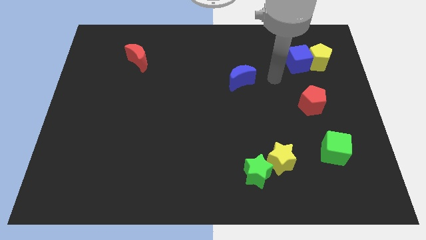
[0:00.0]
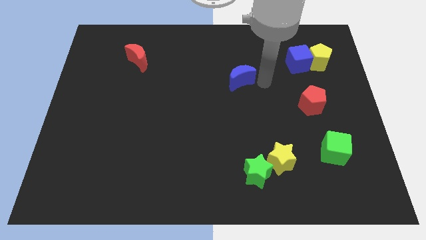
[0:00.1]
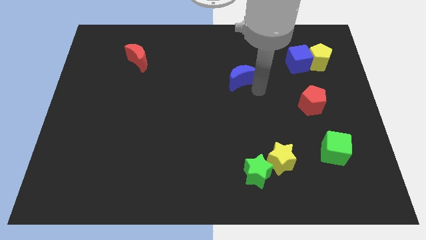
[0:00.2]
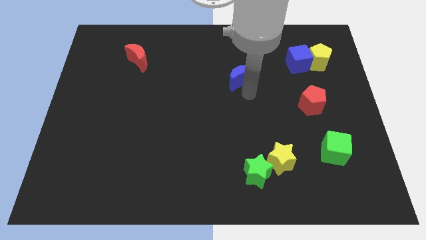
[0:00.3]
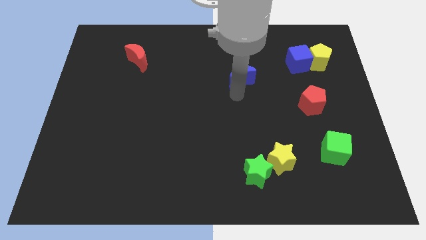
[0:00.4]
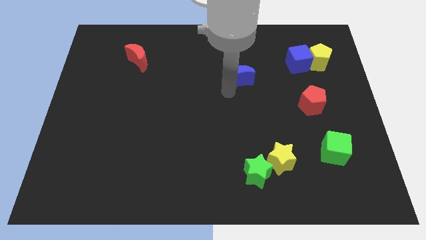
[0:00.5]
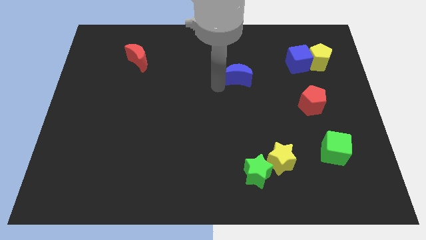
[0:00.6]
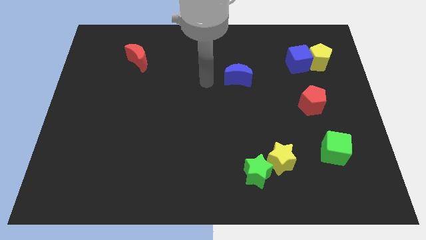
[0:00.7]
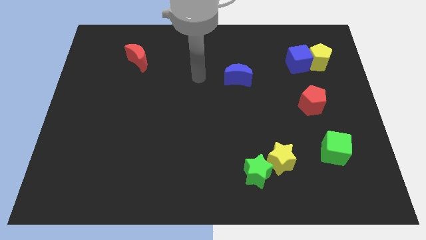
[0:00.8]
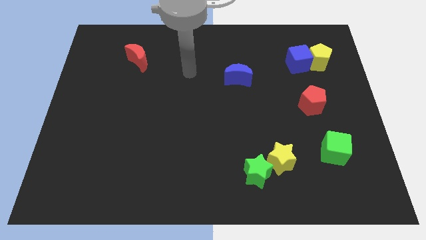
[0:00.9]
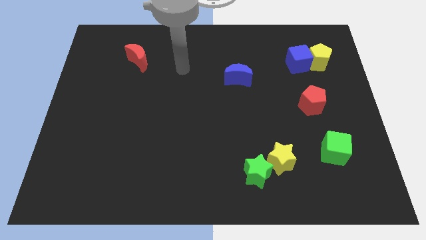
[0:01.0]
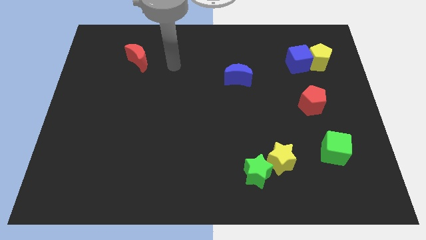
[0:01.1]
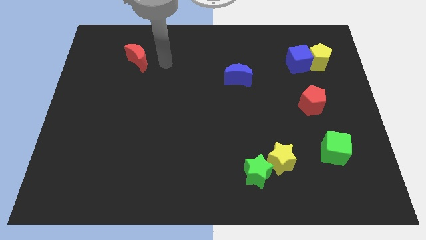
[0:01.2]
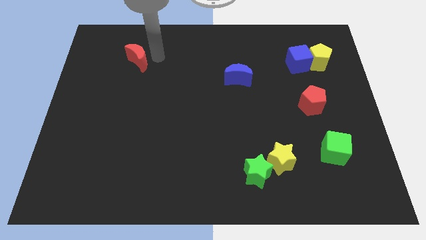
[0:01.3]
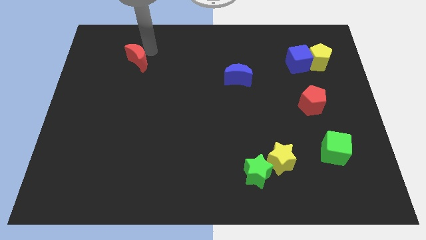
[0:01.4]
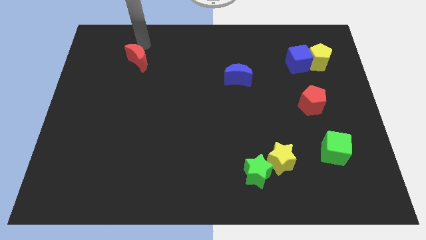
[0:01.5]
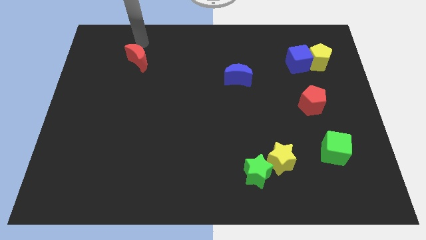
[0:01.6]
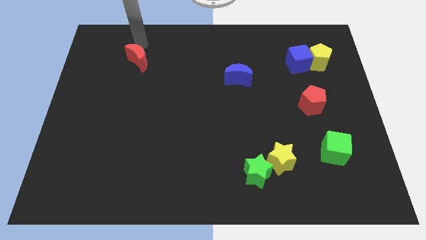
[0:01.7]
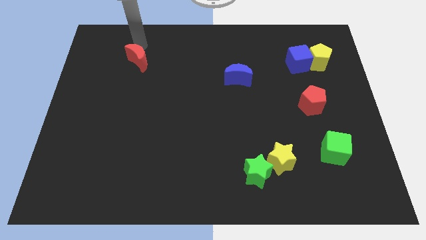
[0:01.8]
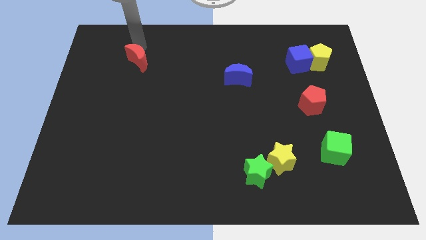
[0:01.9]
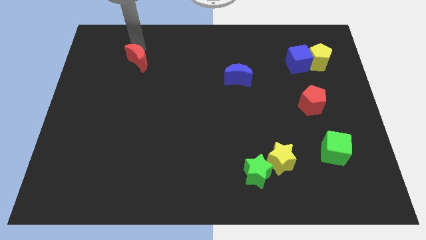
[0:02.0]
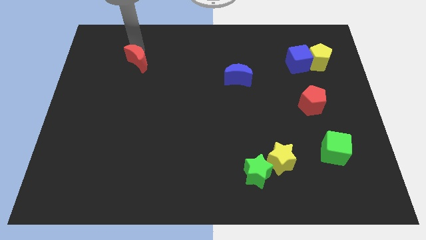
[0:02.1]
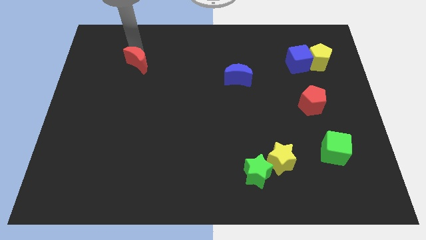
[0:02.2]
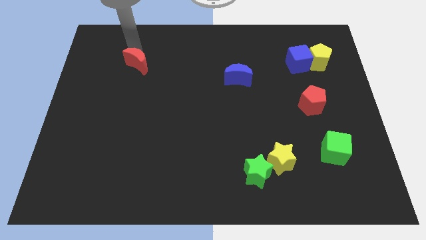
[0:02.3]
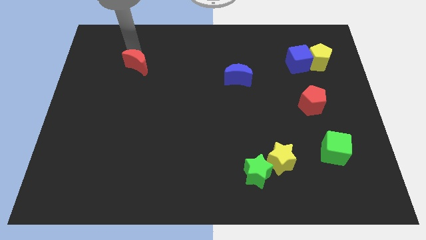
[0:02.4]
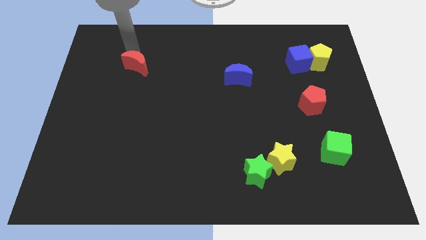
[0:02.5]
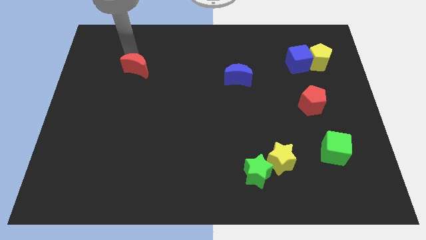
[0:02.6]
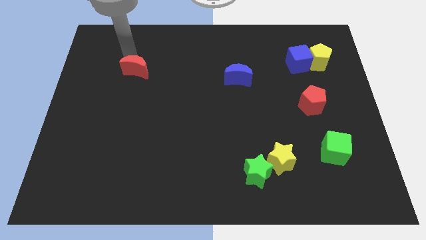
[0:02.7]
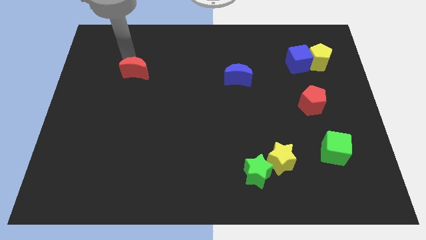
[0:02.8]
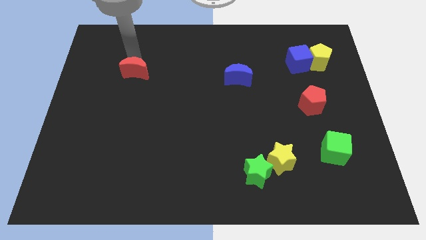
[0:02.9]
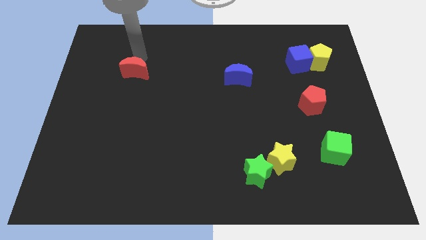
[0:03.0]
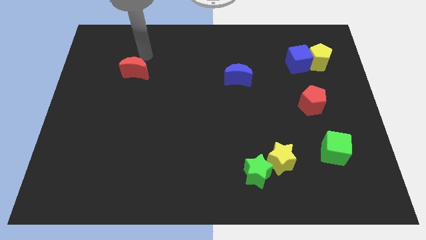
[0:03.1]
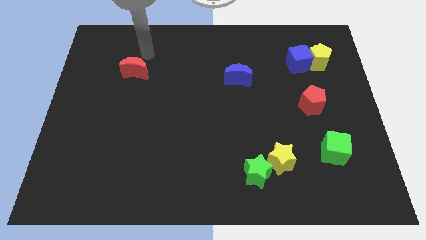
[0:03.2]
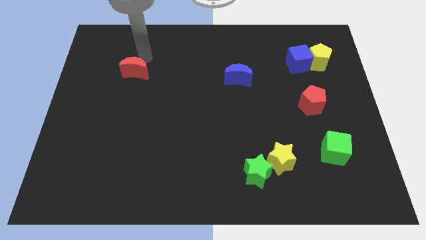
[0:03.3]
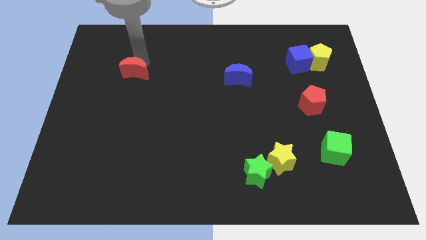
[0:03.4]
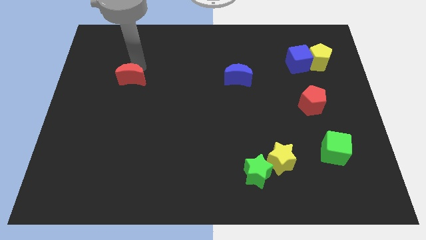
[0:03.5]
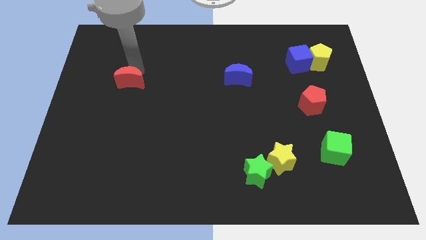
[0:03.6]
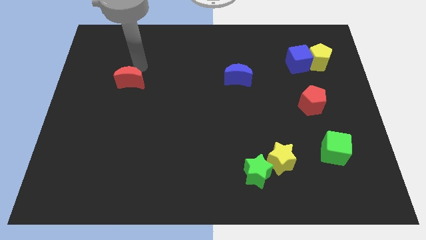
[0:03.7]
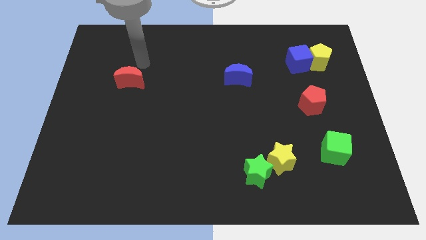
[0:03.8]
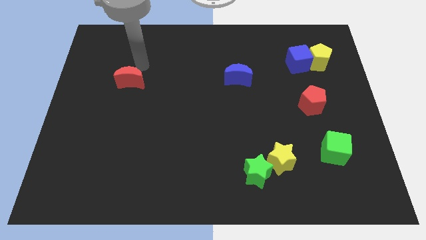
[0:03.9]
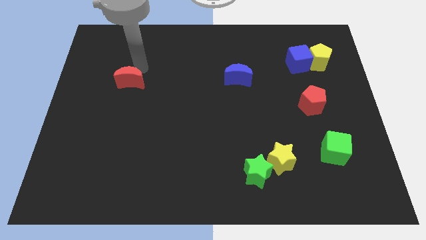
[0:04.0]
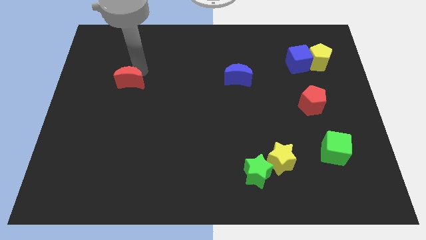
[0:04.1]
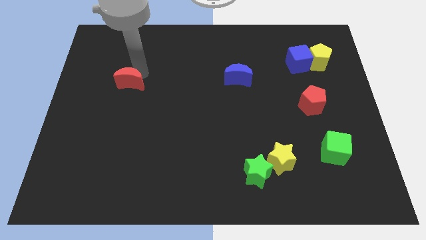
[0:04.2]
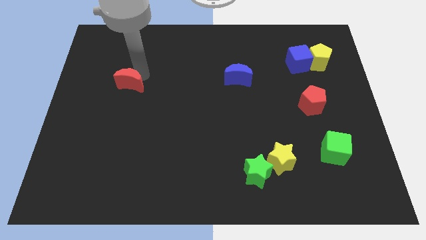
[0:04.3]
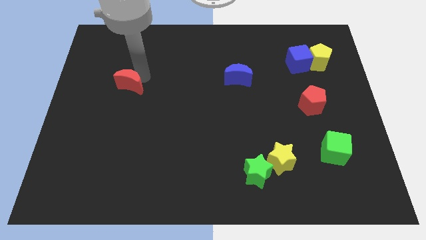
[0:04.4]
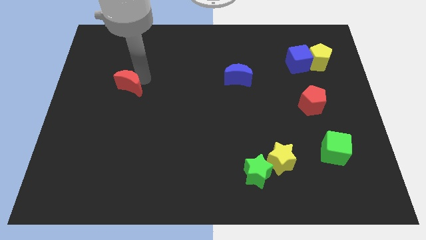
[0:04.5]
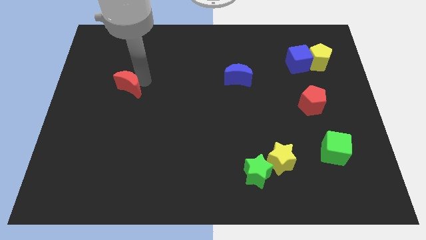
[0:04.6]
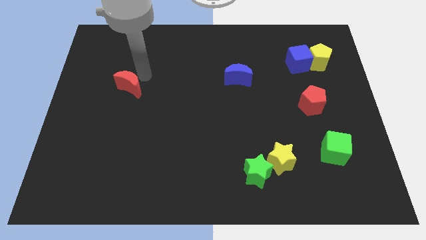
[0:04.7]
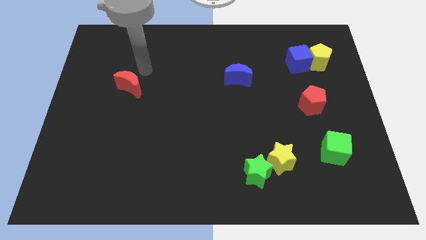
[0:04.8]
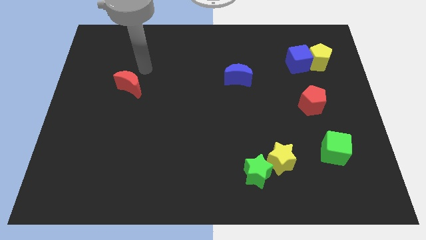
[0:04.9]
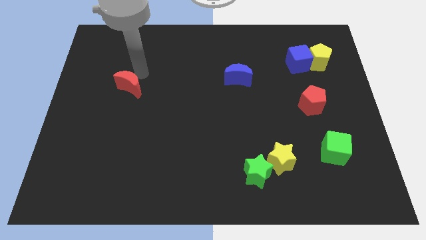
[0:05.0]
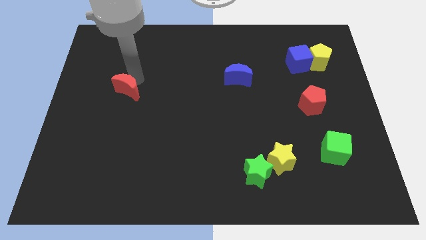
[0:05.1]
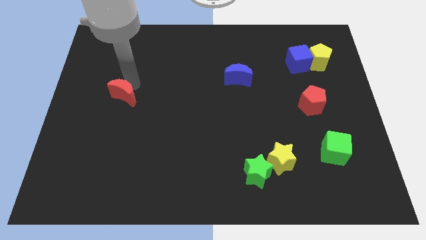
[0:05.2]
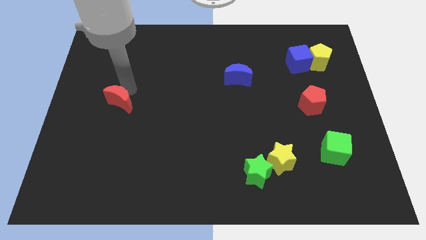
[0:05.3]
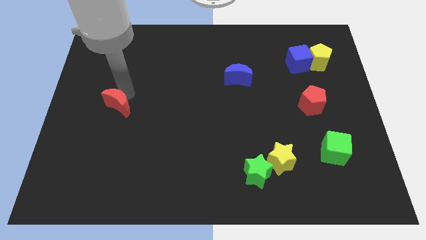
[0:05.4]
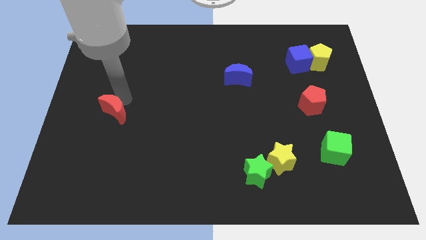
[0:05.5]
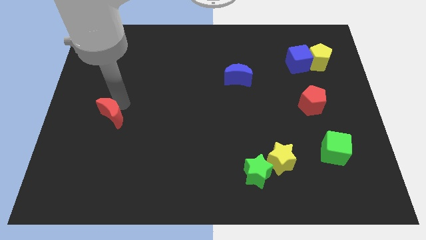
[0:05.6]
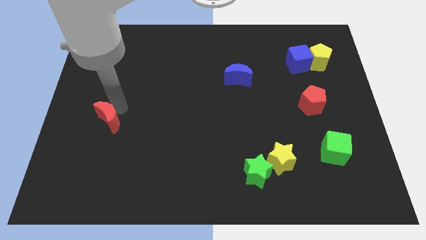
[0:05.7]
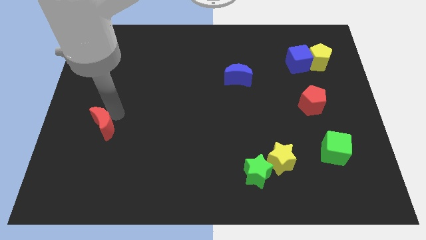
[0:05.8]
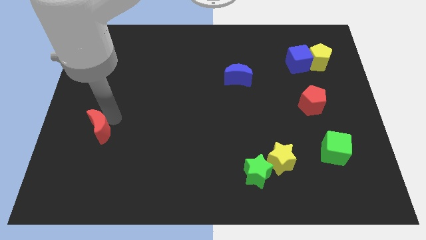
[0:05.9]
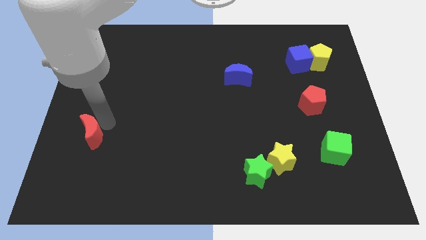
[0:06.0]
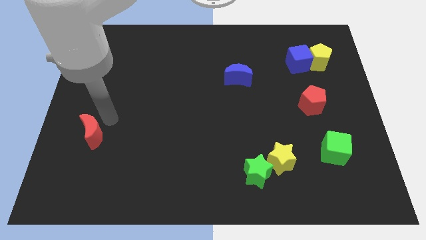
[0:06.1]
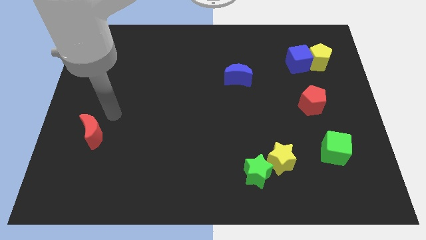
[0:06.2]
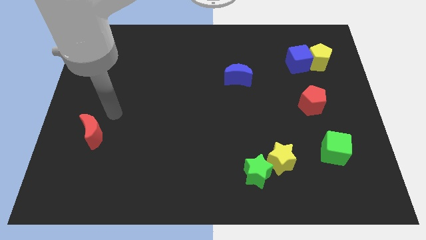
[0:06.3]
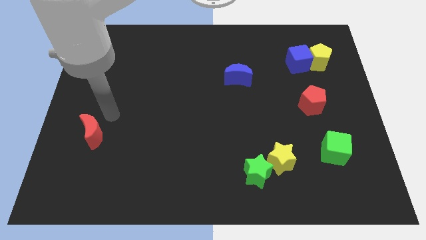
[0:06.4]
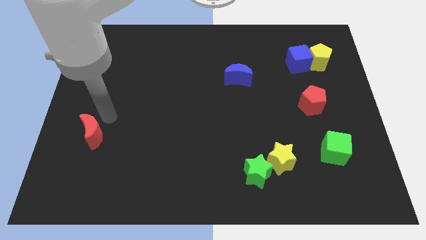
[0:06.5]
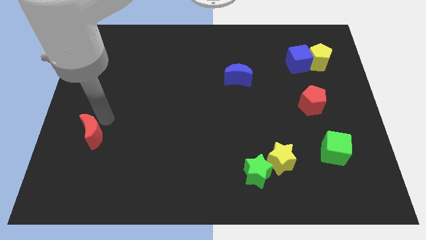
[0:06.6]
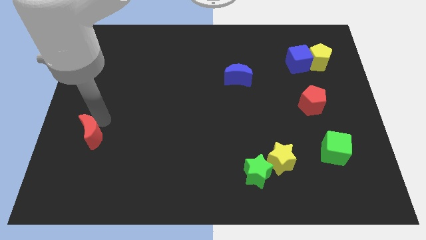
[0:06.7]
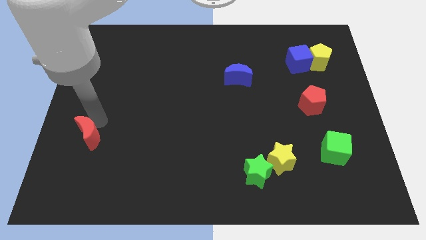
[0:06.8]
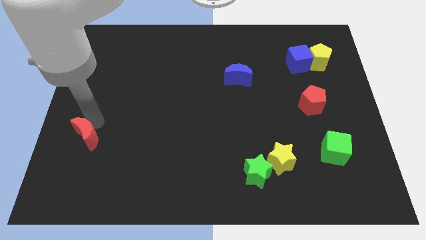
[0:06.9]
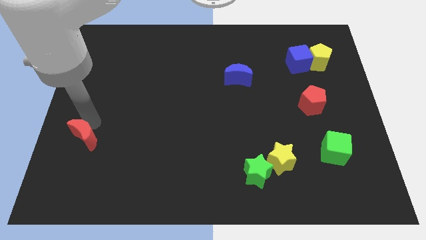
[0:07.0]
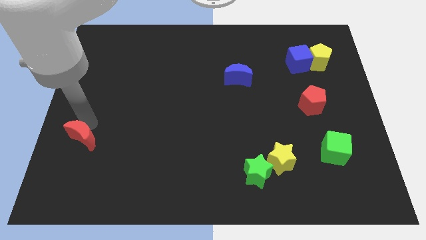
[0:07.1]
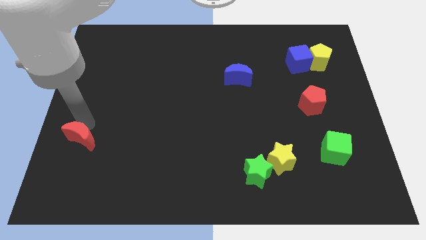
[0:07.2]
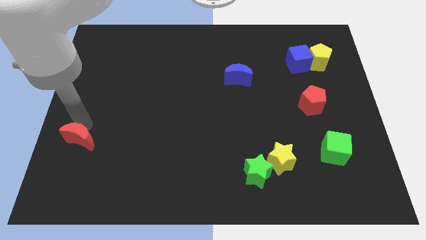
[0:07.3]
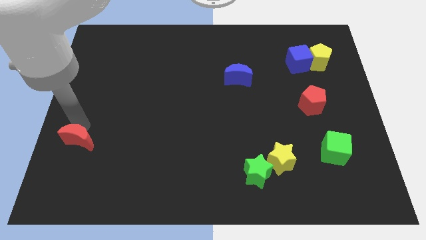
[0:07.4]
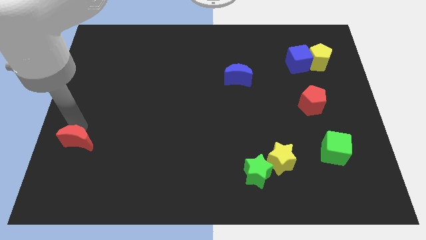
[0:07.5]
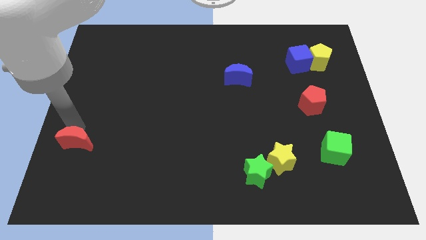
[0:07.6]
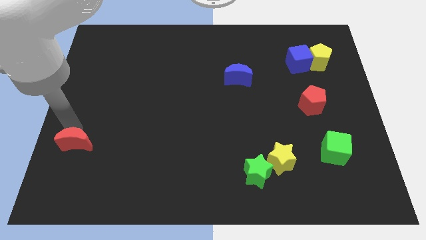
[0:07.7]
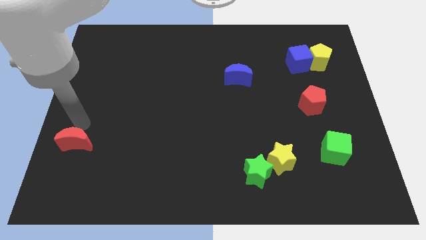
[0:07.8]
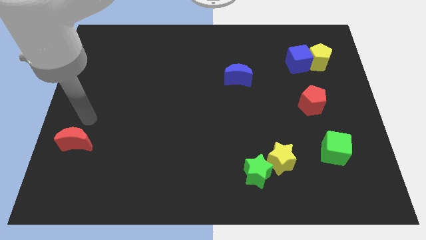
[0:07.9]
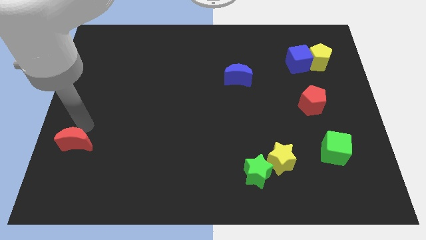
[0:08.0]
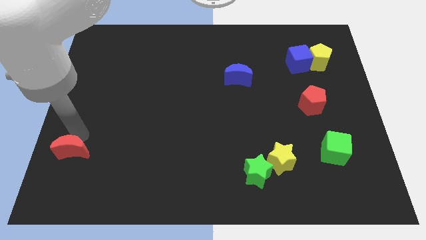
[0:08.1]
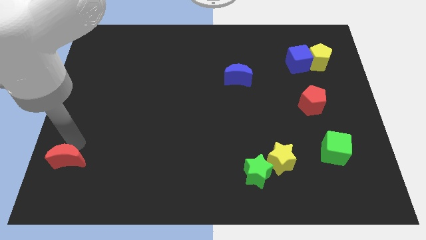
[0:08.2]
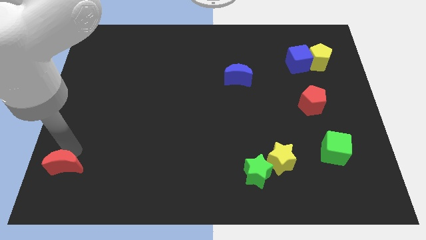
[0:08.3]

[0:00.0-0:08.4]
put the red moon to the lower left corner
